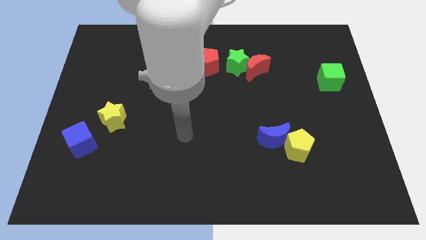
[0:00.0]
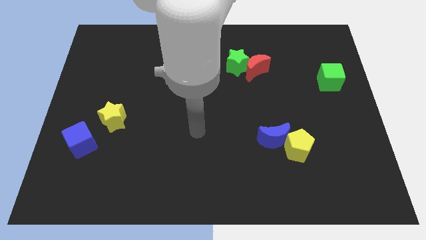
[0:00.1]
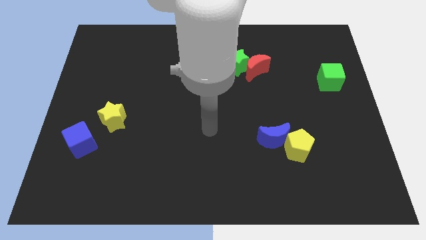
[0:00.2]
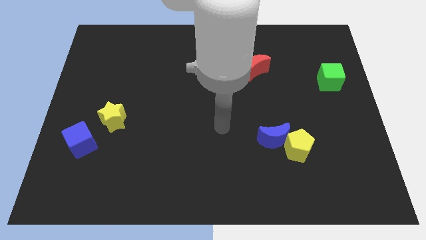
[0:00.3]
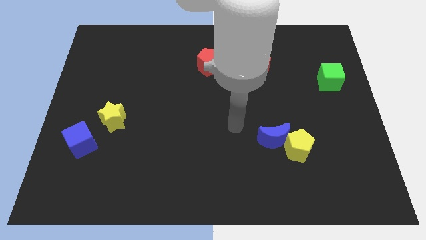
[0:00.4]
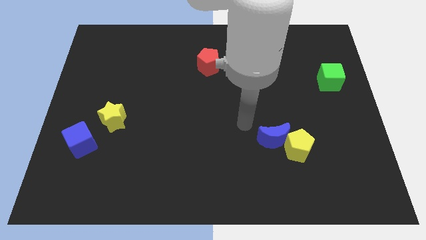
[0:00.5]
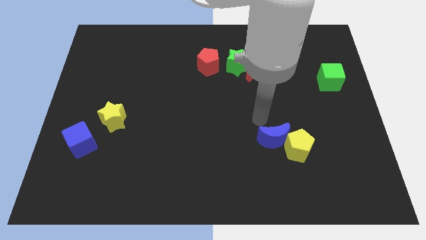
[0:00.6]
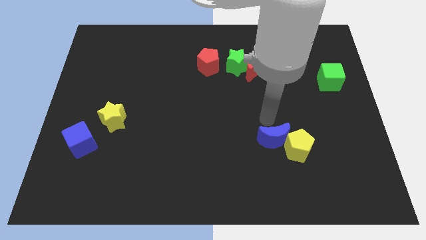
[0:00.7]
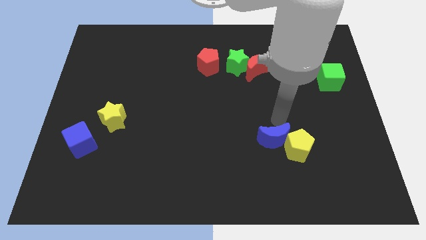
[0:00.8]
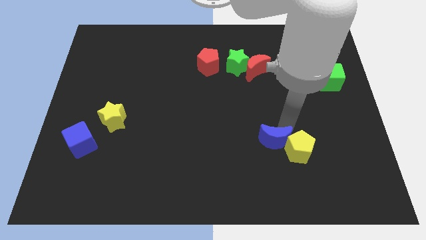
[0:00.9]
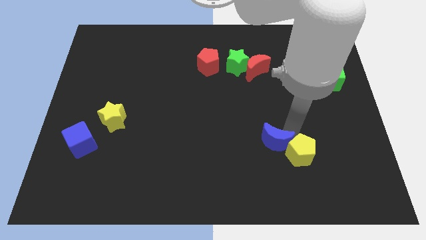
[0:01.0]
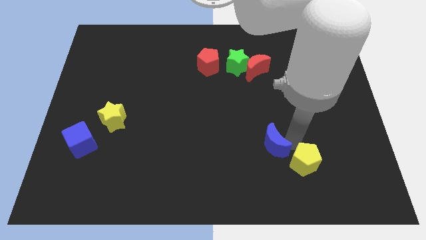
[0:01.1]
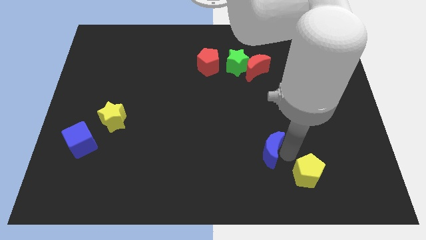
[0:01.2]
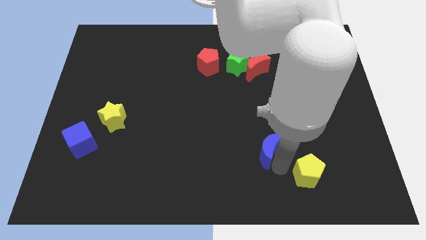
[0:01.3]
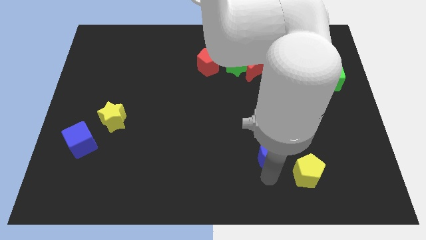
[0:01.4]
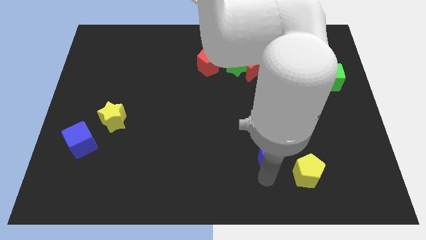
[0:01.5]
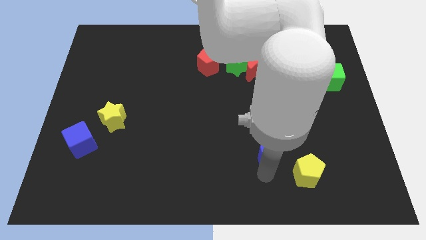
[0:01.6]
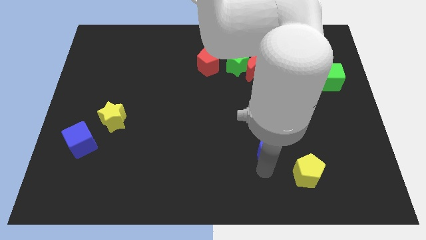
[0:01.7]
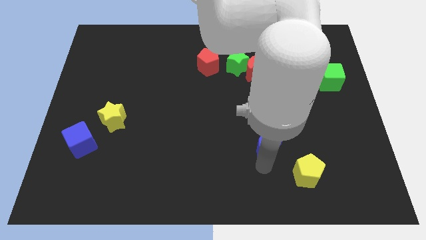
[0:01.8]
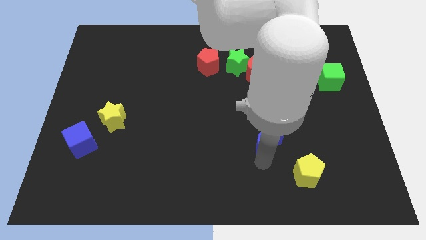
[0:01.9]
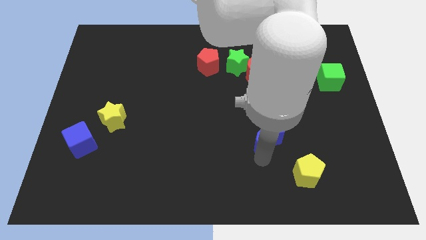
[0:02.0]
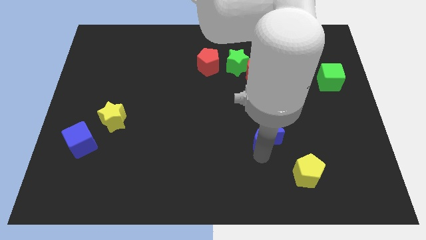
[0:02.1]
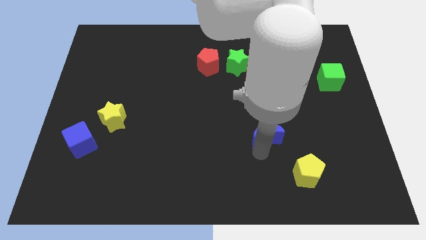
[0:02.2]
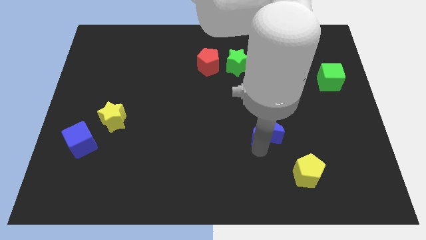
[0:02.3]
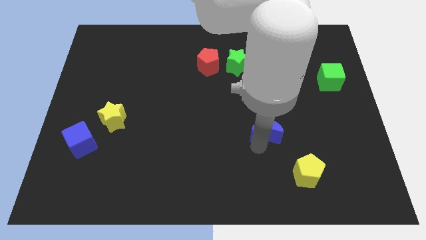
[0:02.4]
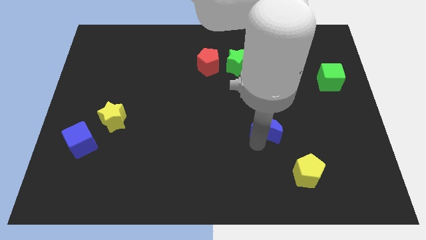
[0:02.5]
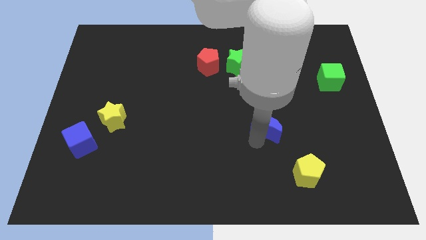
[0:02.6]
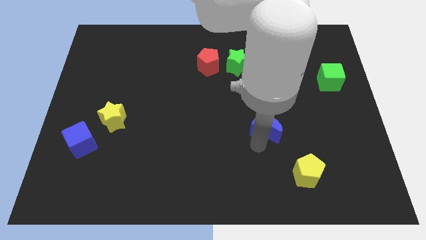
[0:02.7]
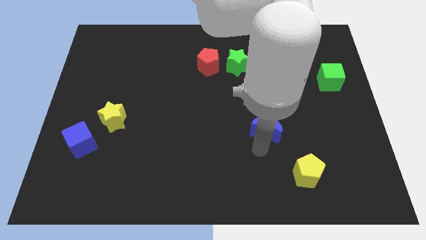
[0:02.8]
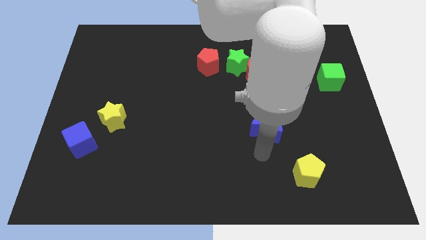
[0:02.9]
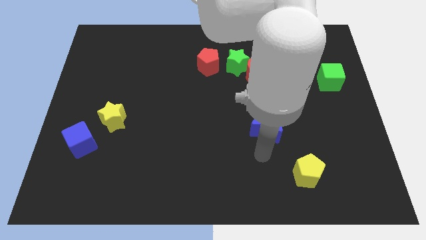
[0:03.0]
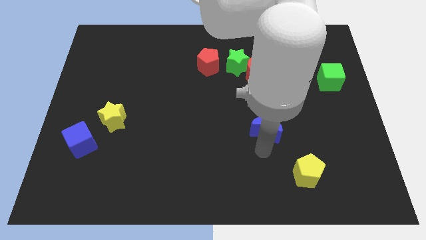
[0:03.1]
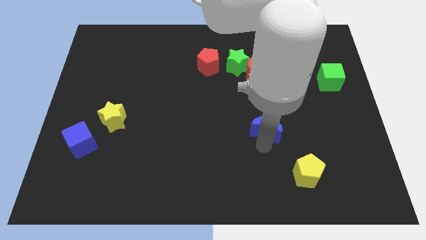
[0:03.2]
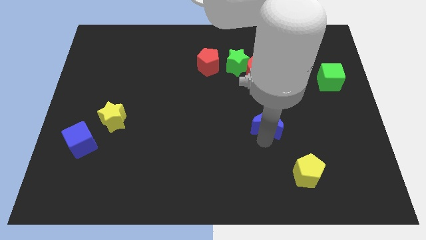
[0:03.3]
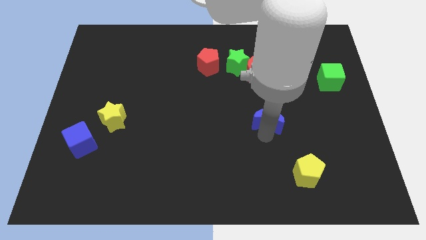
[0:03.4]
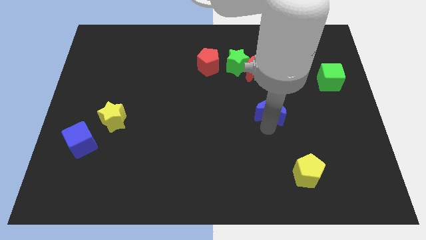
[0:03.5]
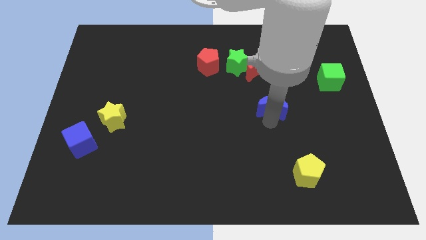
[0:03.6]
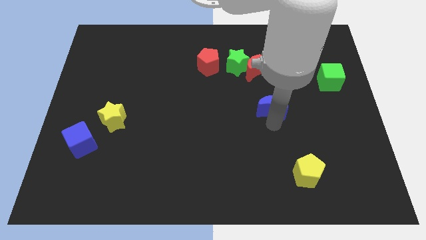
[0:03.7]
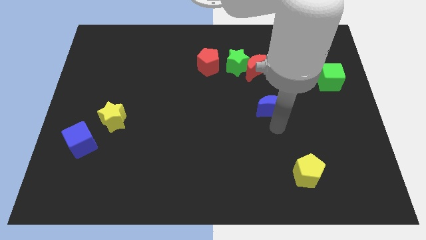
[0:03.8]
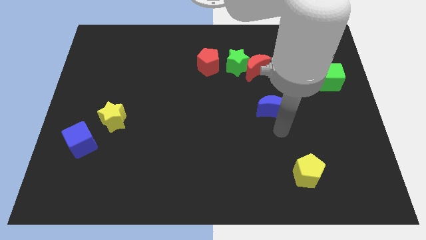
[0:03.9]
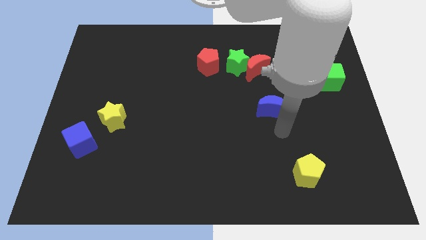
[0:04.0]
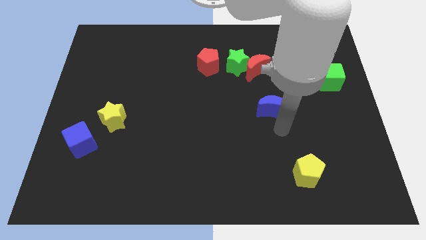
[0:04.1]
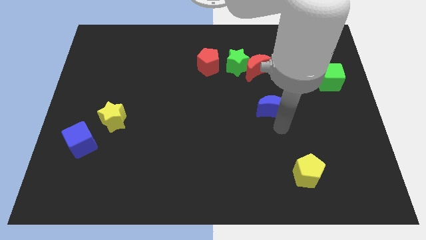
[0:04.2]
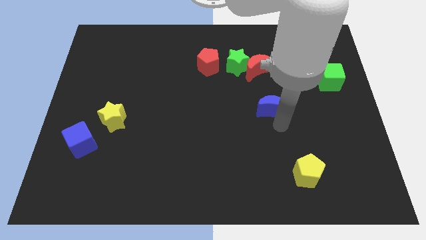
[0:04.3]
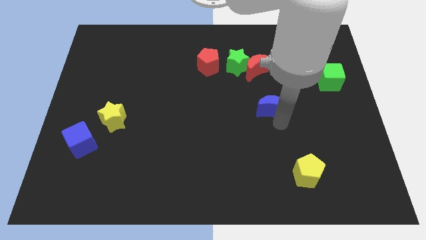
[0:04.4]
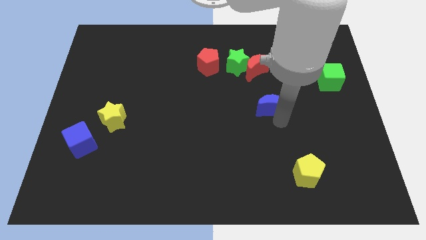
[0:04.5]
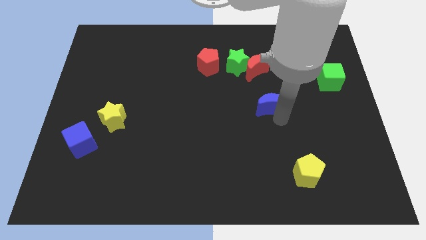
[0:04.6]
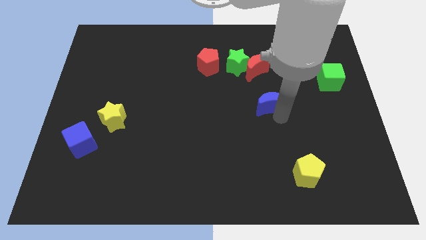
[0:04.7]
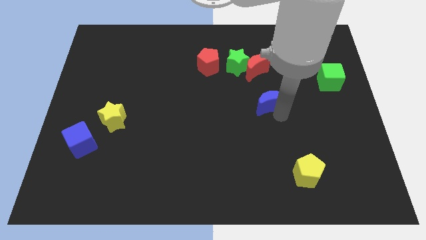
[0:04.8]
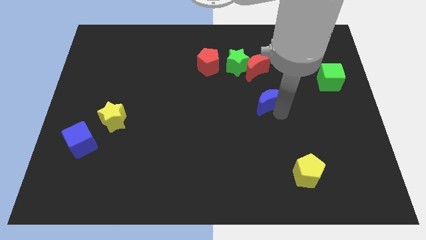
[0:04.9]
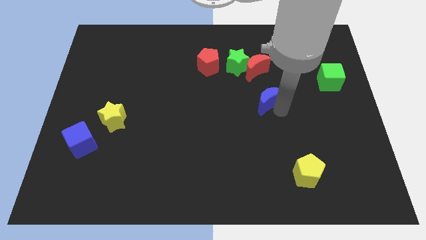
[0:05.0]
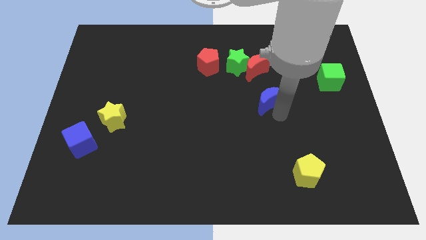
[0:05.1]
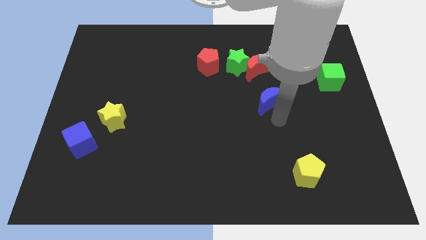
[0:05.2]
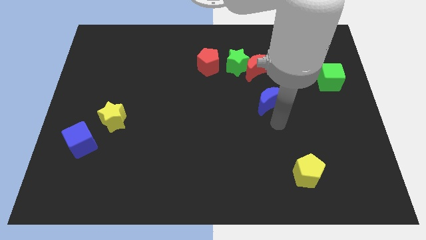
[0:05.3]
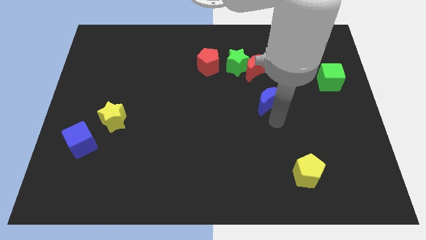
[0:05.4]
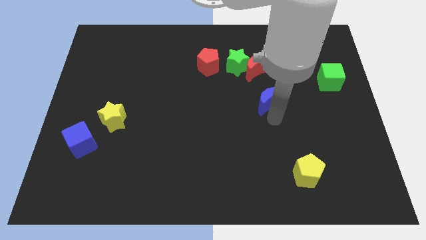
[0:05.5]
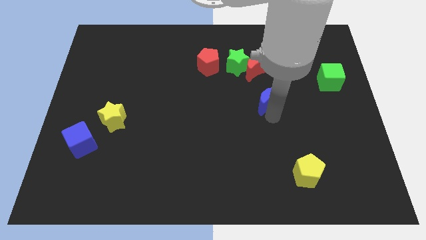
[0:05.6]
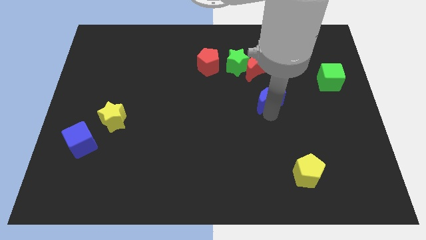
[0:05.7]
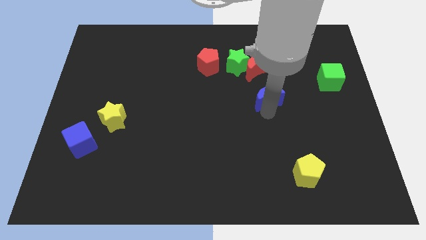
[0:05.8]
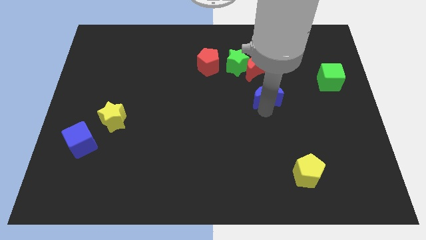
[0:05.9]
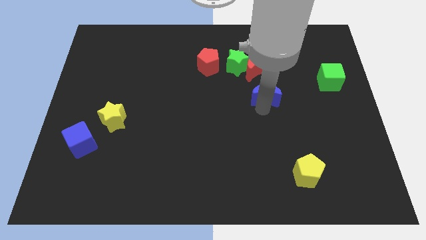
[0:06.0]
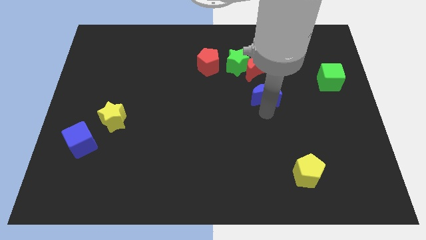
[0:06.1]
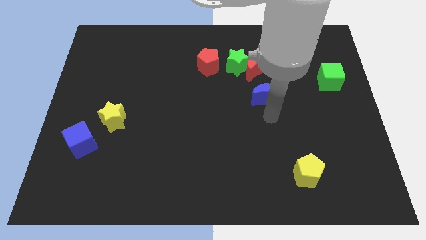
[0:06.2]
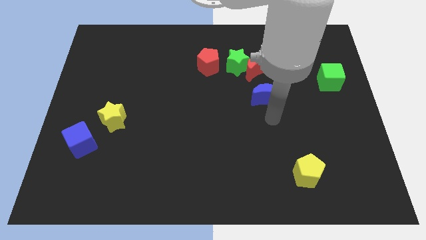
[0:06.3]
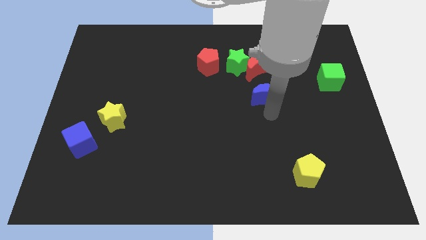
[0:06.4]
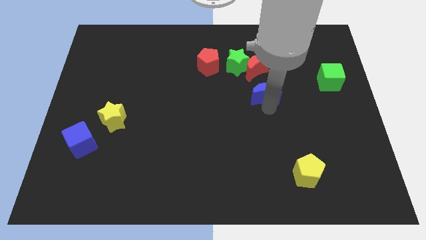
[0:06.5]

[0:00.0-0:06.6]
move the blue moon diagonally down and to the right of the green star
